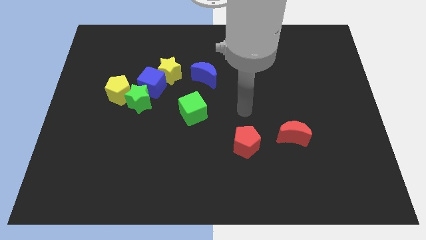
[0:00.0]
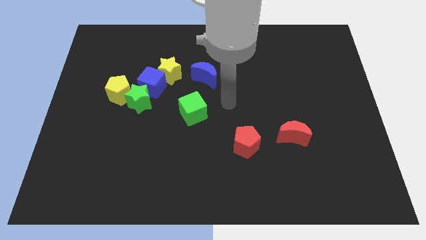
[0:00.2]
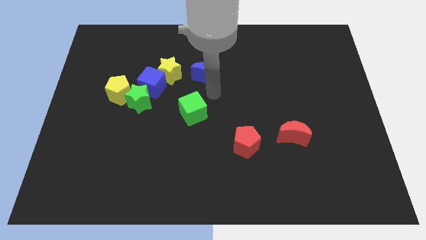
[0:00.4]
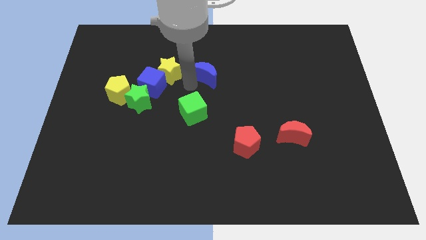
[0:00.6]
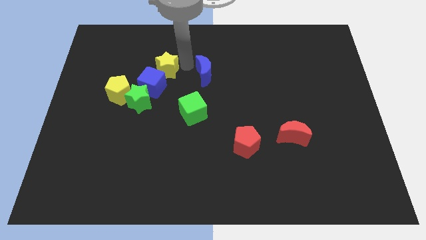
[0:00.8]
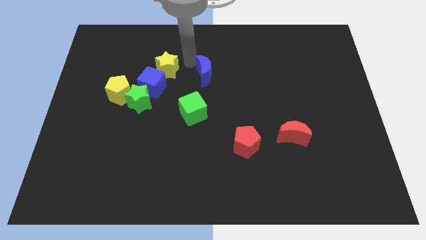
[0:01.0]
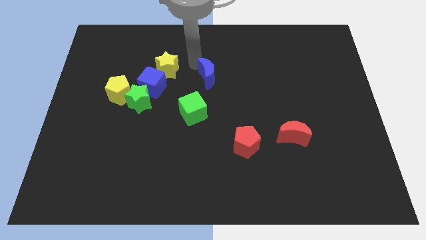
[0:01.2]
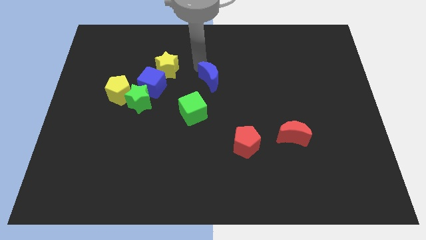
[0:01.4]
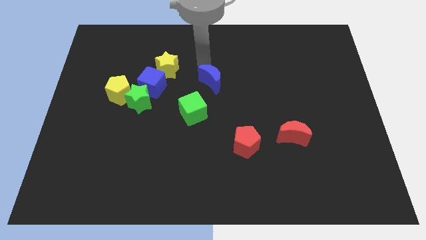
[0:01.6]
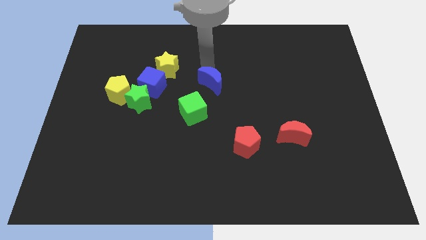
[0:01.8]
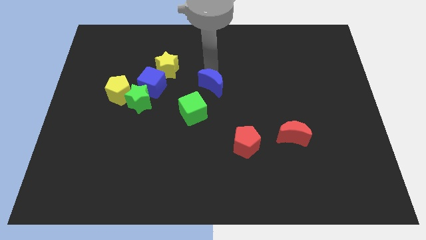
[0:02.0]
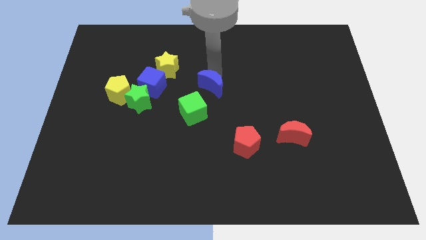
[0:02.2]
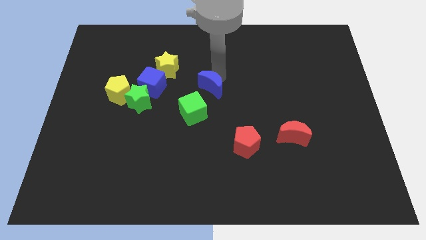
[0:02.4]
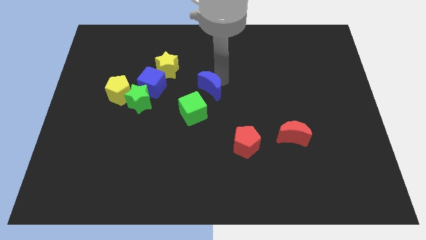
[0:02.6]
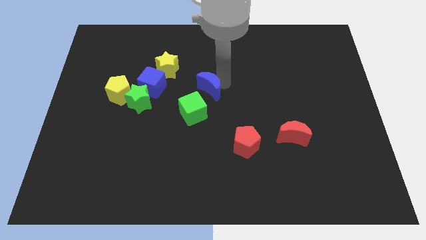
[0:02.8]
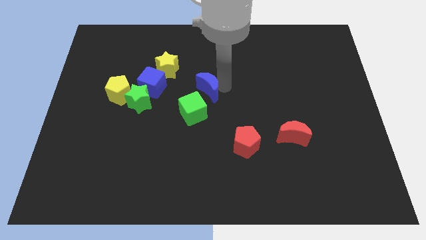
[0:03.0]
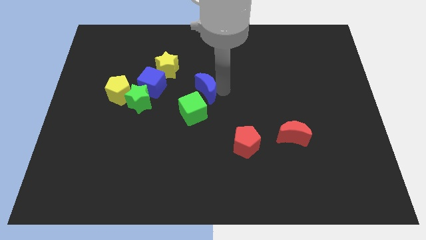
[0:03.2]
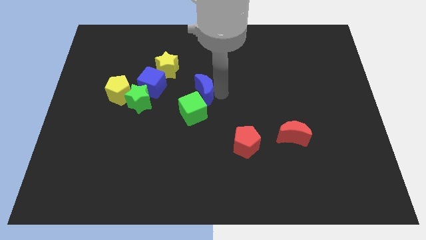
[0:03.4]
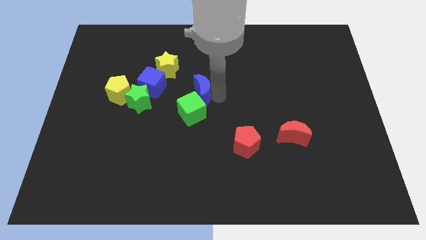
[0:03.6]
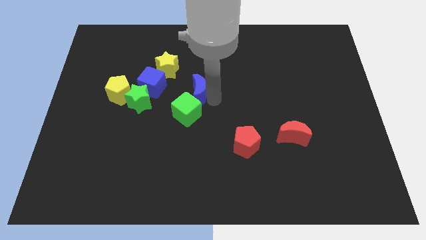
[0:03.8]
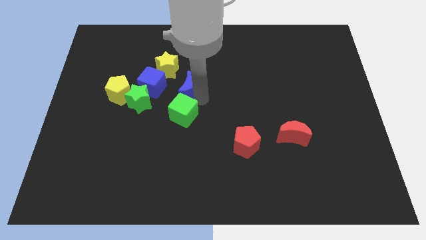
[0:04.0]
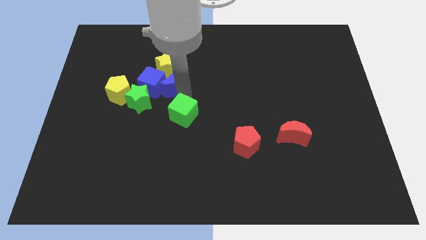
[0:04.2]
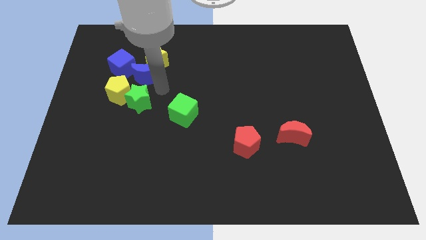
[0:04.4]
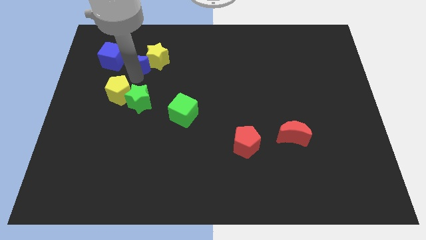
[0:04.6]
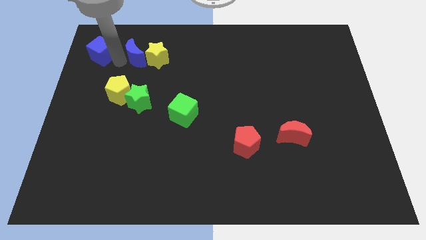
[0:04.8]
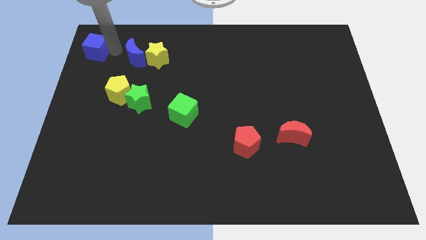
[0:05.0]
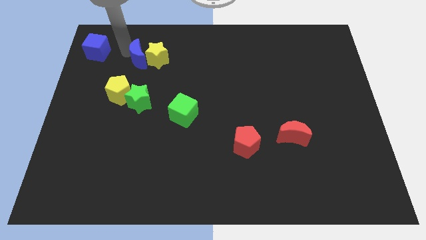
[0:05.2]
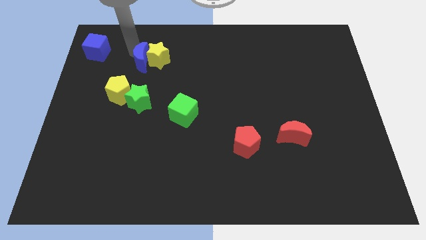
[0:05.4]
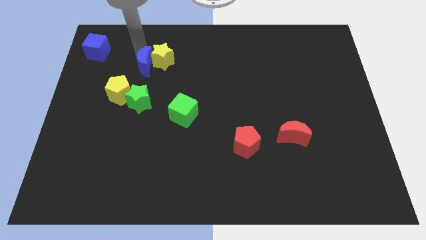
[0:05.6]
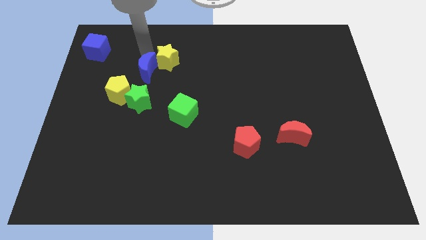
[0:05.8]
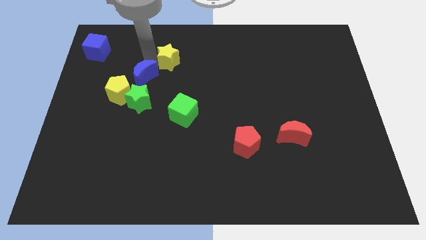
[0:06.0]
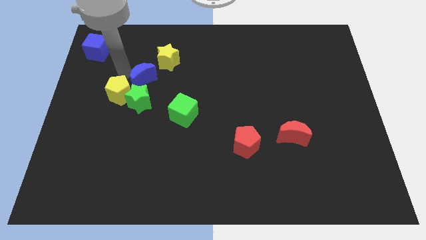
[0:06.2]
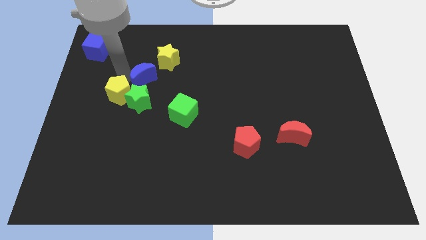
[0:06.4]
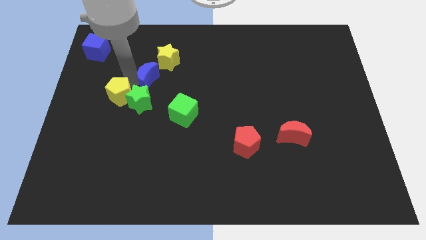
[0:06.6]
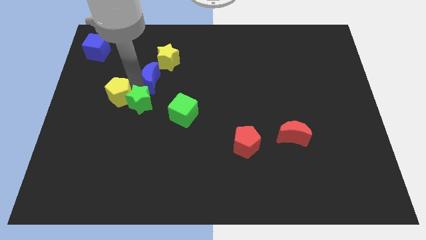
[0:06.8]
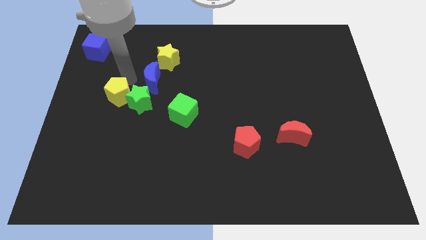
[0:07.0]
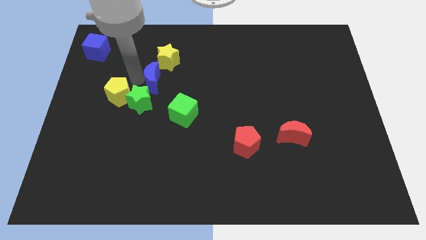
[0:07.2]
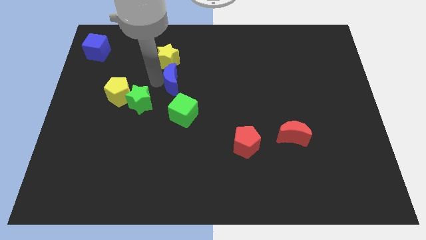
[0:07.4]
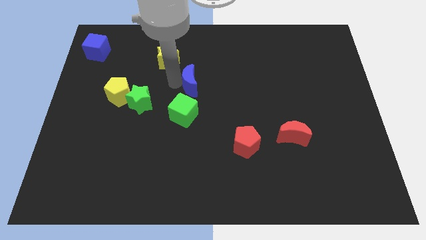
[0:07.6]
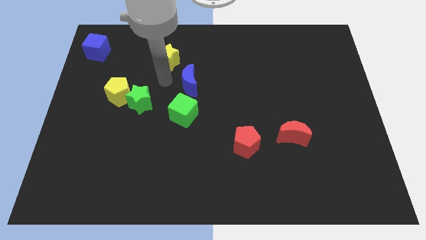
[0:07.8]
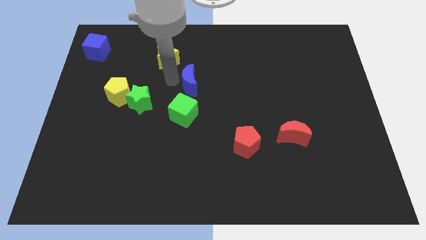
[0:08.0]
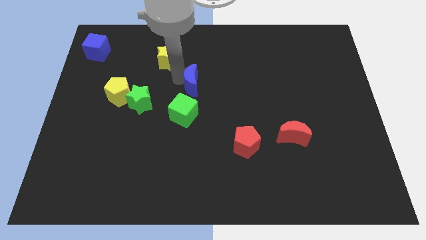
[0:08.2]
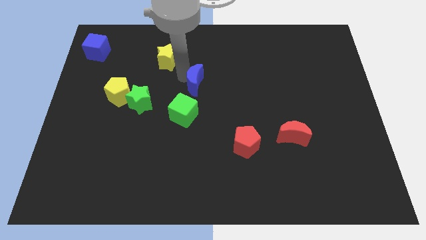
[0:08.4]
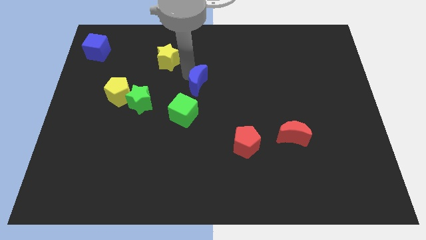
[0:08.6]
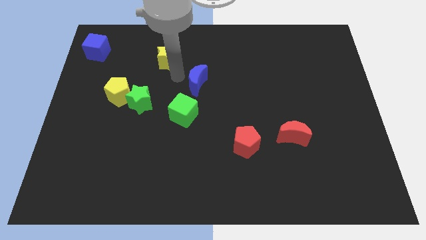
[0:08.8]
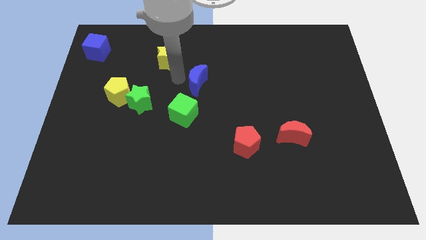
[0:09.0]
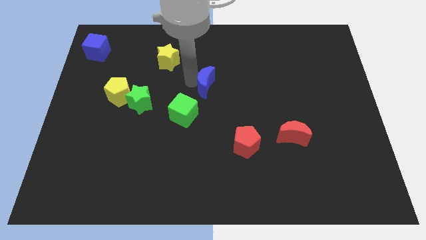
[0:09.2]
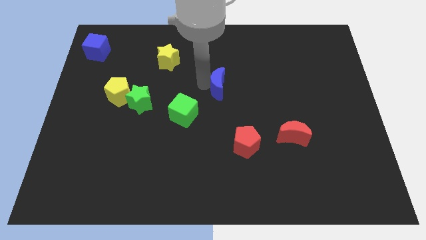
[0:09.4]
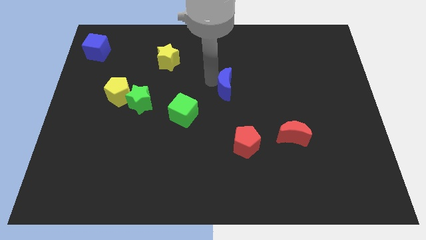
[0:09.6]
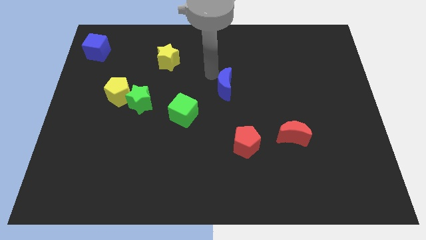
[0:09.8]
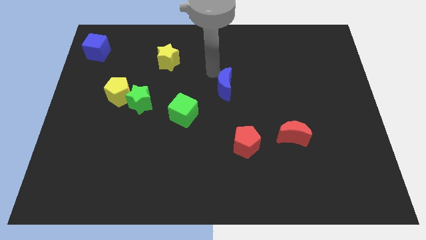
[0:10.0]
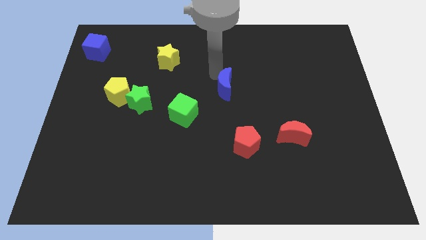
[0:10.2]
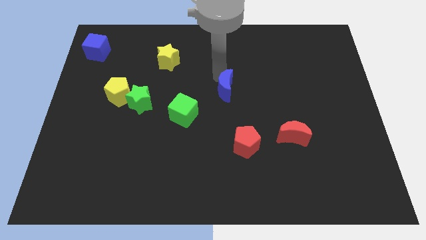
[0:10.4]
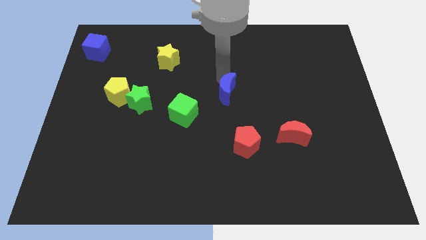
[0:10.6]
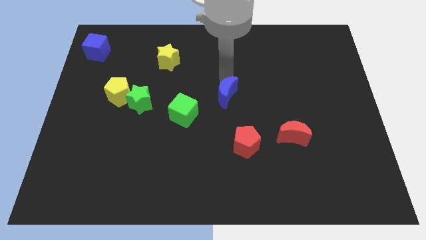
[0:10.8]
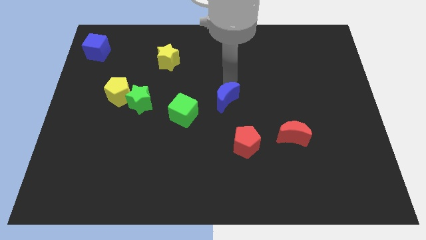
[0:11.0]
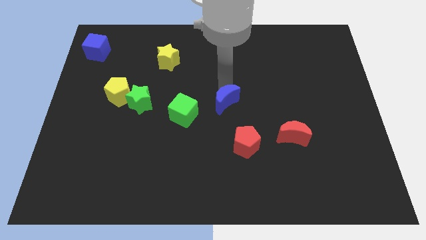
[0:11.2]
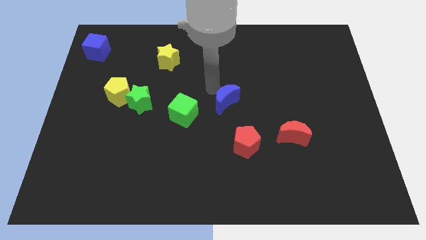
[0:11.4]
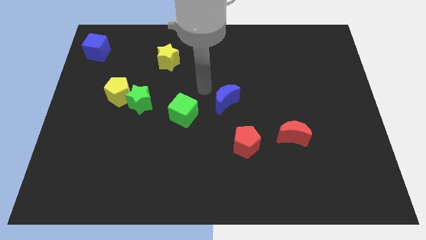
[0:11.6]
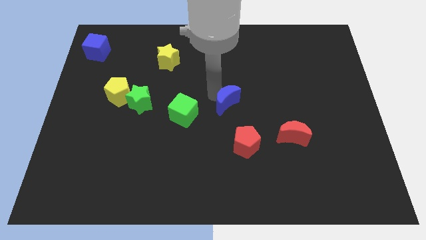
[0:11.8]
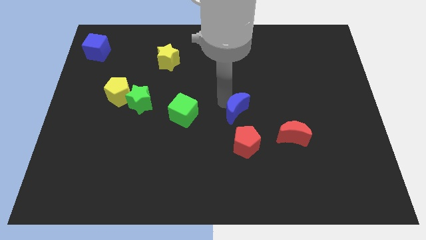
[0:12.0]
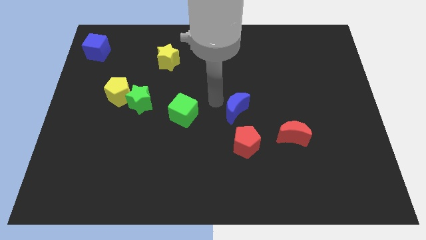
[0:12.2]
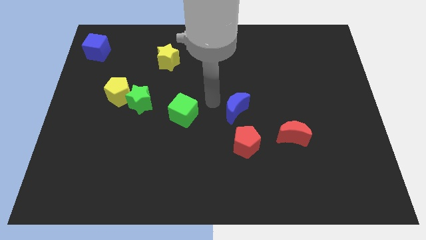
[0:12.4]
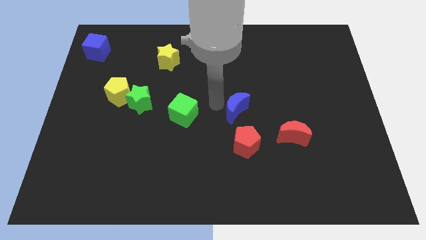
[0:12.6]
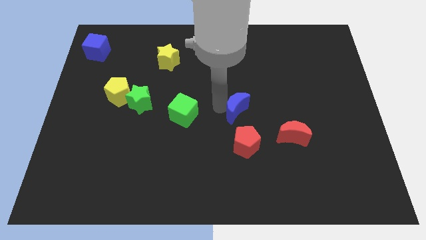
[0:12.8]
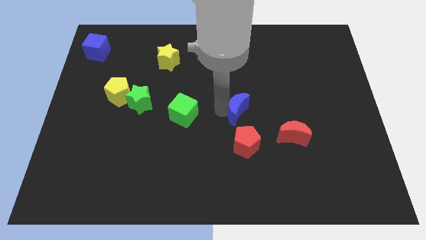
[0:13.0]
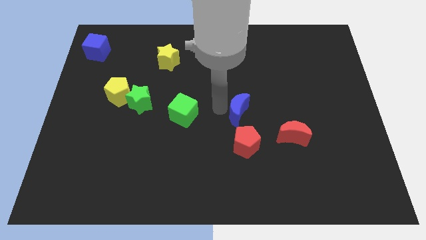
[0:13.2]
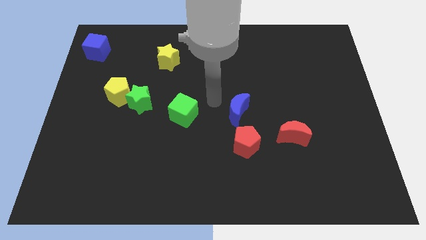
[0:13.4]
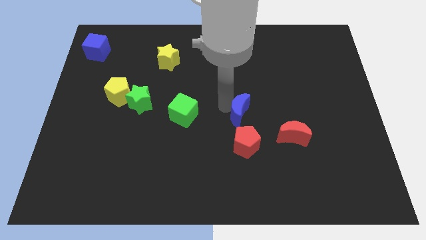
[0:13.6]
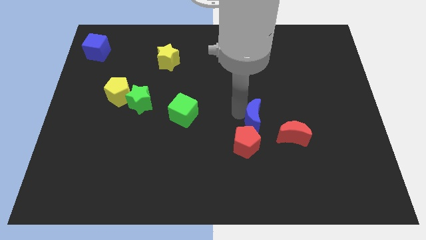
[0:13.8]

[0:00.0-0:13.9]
put the blue moon diagonally up and to the right of the red pentagon
